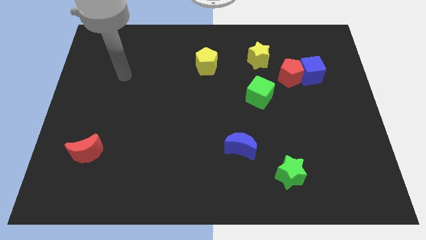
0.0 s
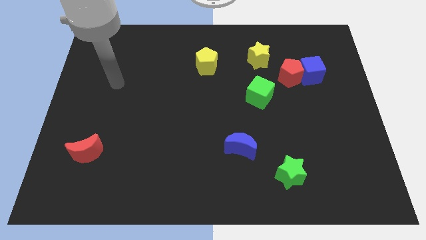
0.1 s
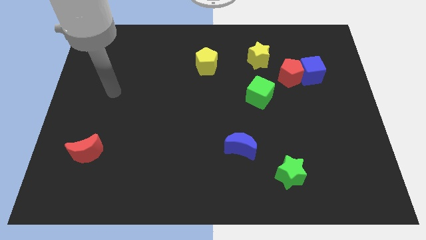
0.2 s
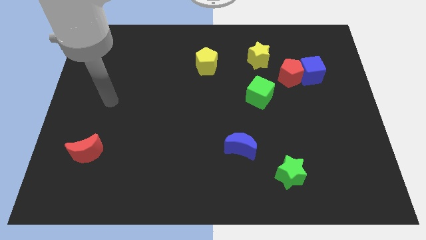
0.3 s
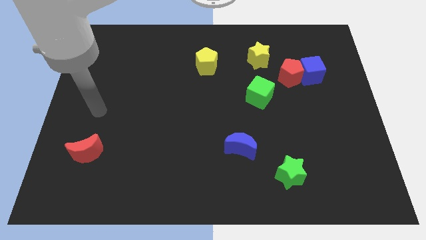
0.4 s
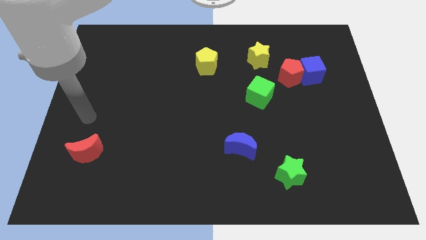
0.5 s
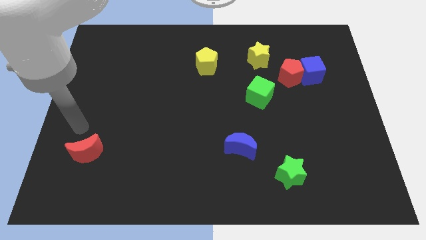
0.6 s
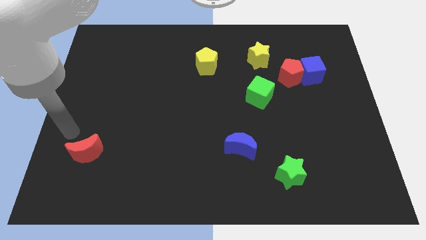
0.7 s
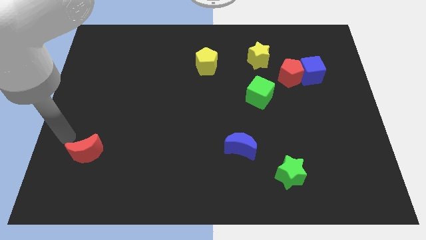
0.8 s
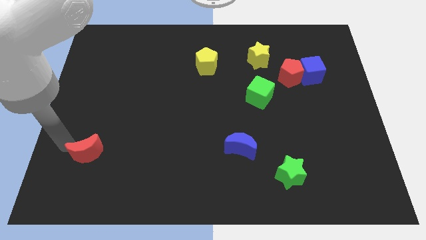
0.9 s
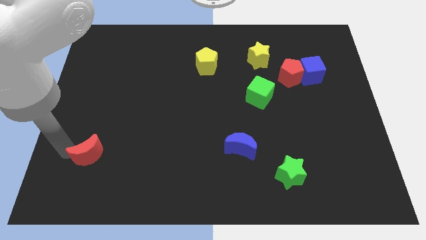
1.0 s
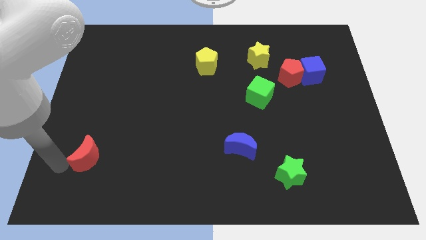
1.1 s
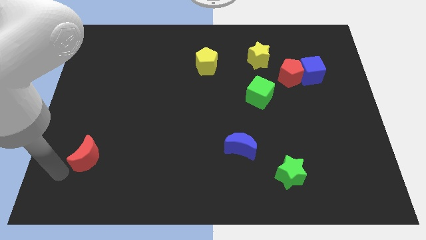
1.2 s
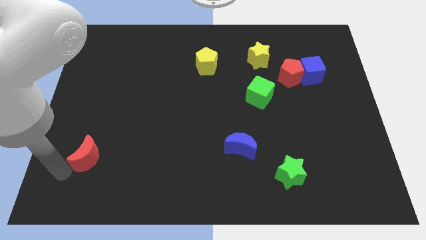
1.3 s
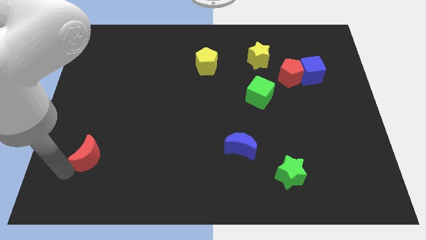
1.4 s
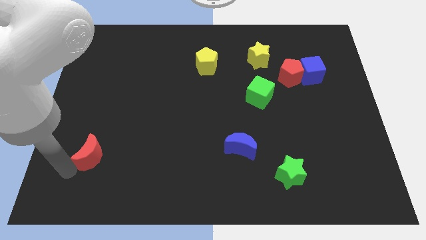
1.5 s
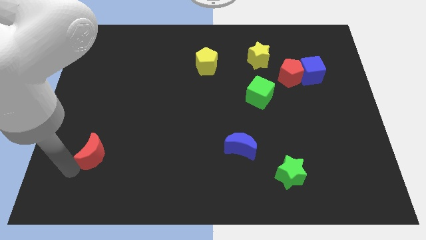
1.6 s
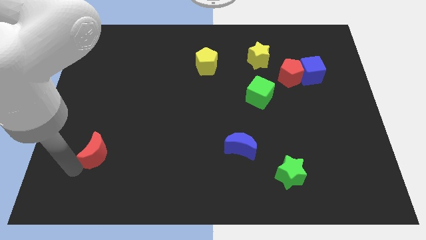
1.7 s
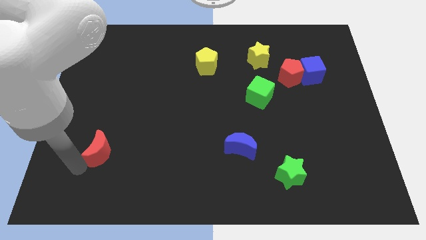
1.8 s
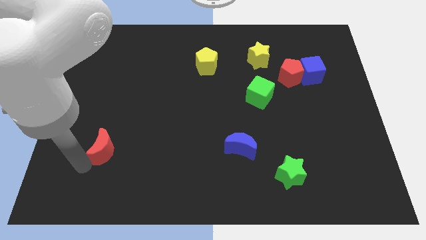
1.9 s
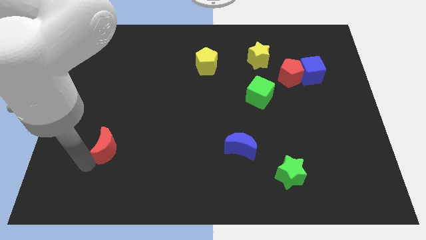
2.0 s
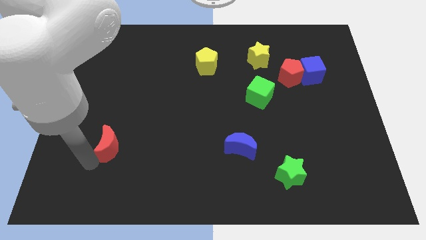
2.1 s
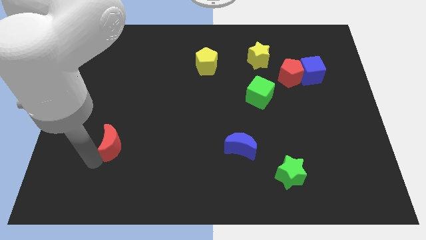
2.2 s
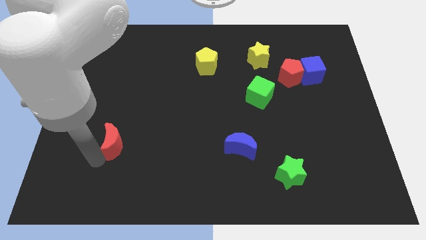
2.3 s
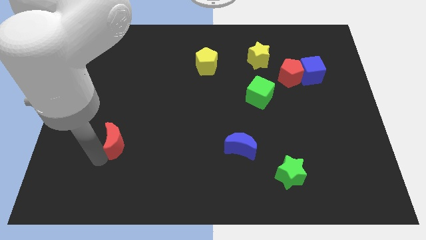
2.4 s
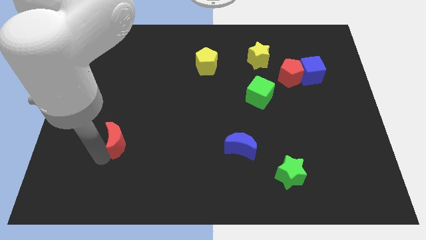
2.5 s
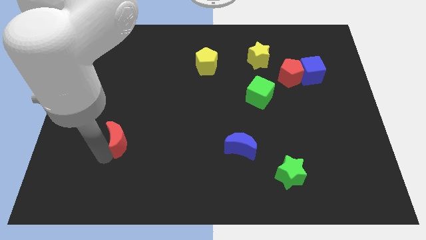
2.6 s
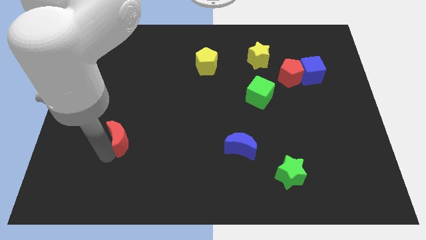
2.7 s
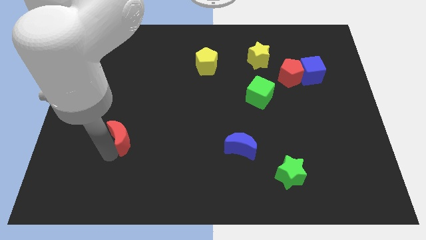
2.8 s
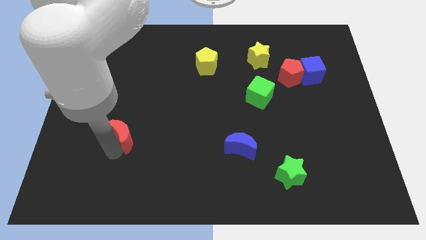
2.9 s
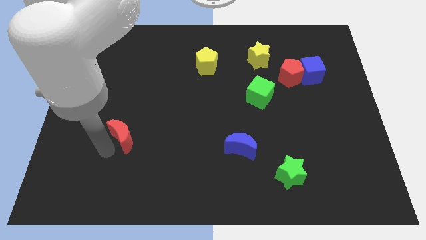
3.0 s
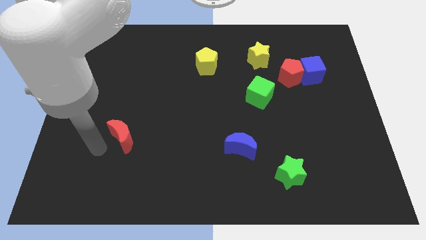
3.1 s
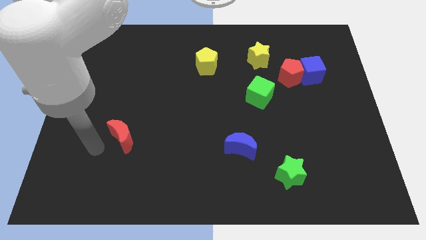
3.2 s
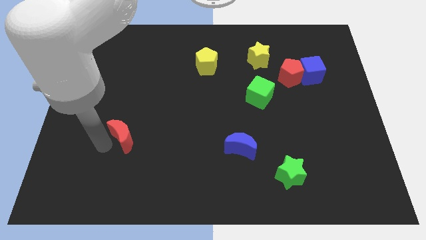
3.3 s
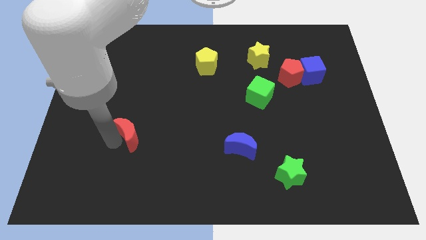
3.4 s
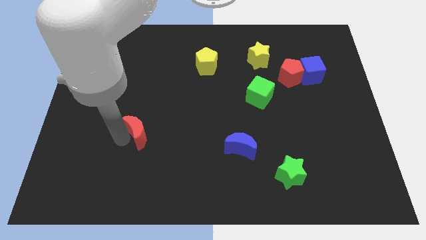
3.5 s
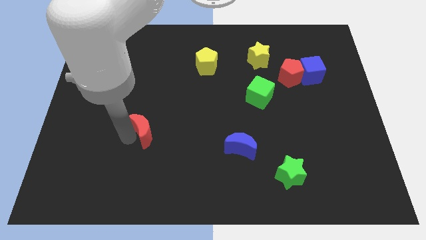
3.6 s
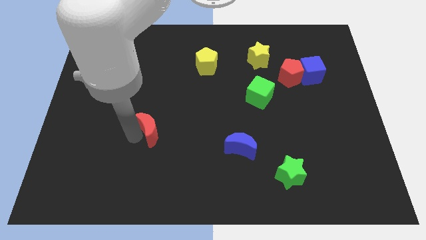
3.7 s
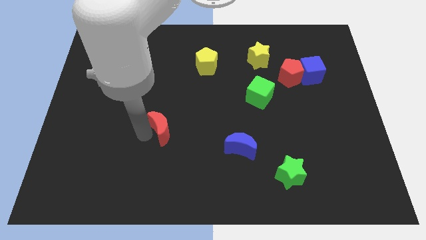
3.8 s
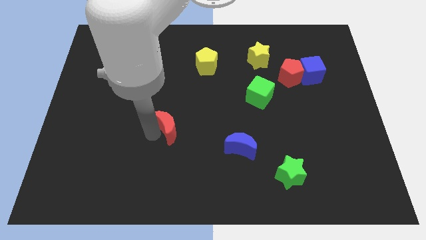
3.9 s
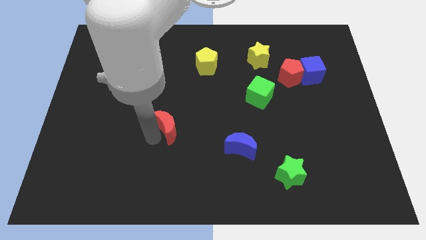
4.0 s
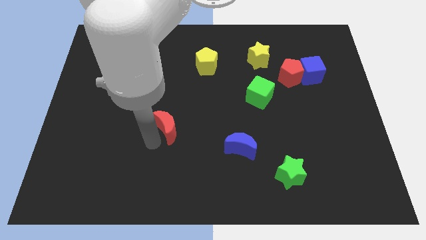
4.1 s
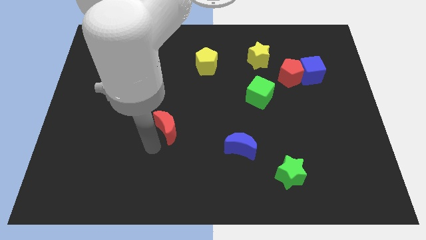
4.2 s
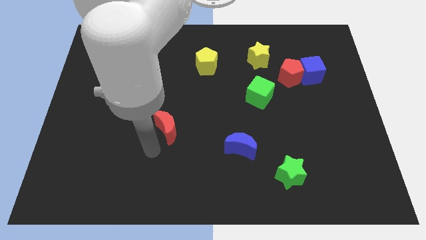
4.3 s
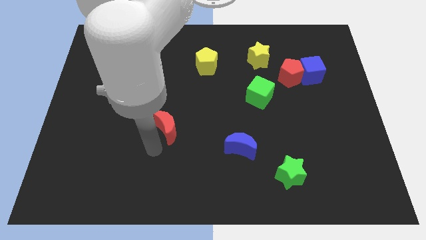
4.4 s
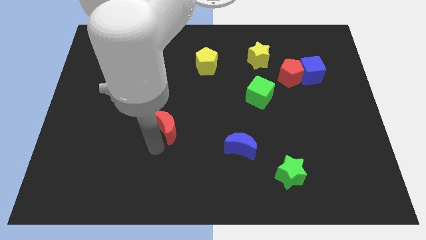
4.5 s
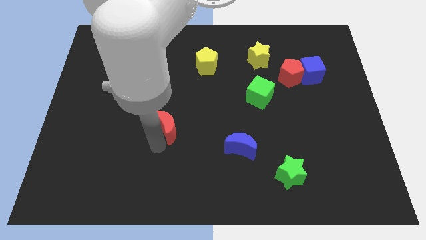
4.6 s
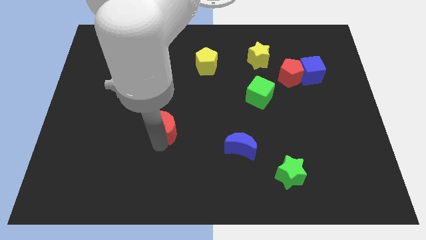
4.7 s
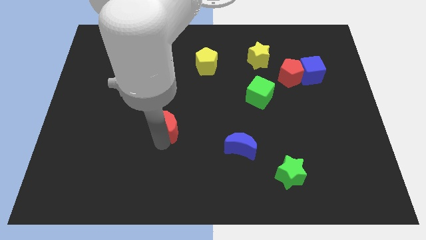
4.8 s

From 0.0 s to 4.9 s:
move the red moon to the center

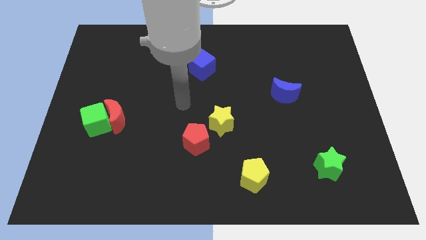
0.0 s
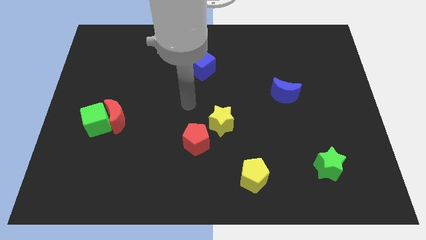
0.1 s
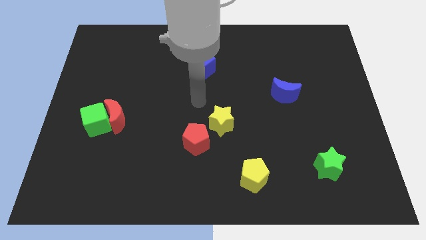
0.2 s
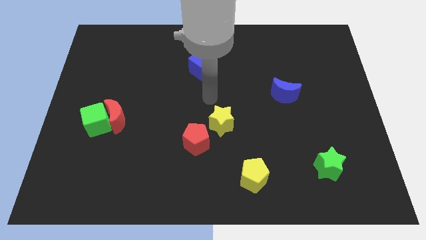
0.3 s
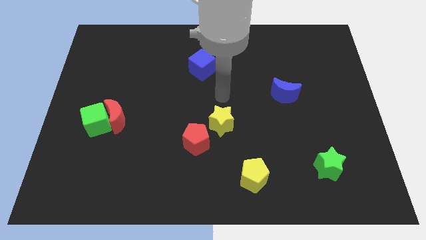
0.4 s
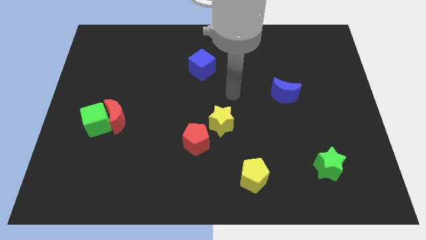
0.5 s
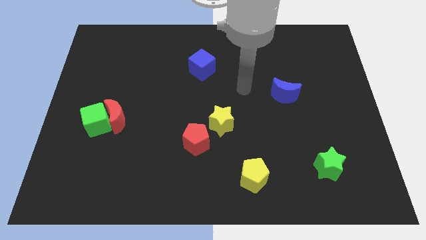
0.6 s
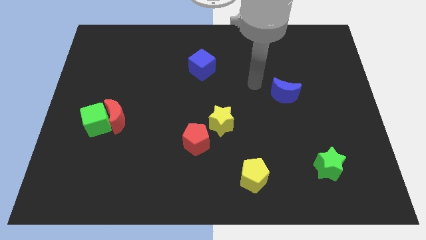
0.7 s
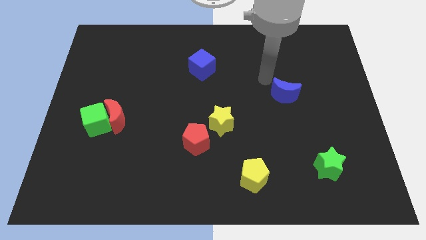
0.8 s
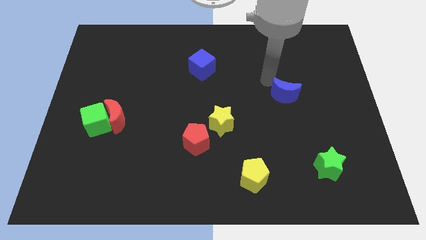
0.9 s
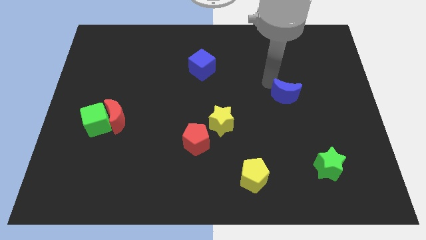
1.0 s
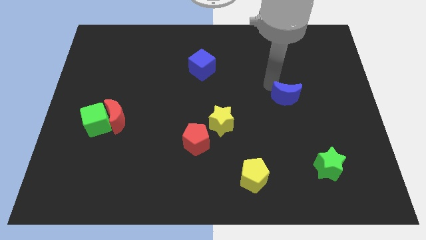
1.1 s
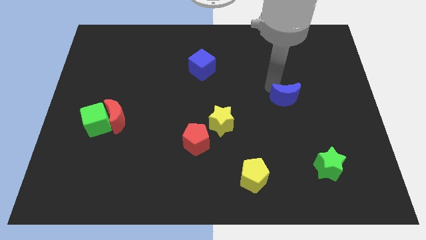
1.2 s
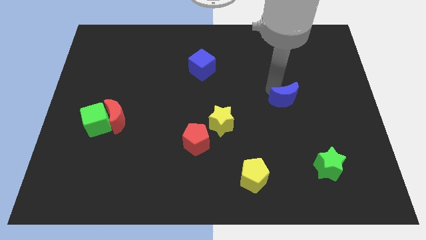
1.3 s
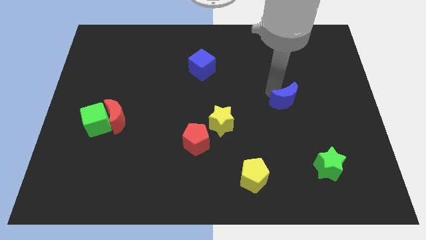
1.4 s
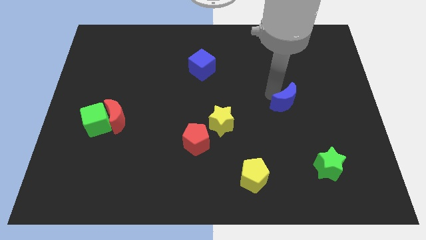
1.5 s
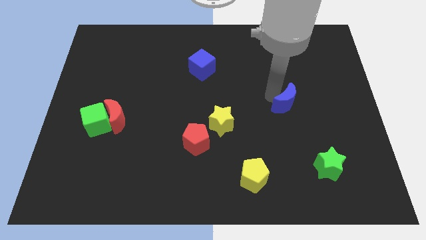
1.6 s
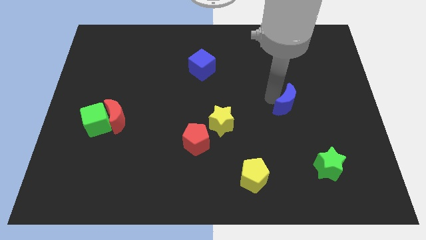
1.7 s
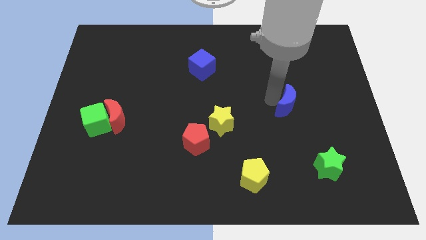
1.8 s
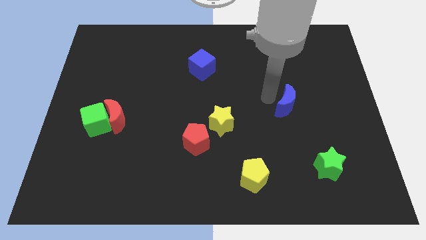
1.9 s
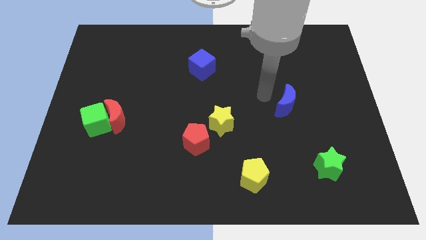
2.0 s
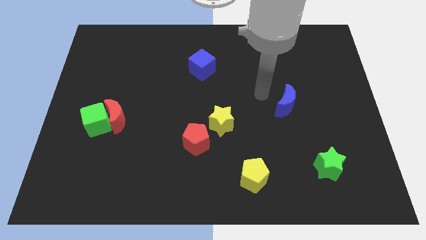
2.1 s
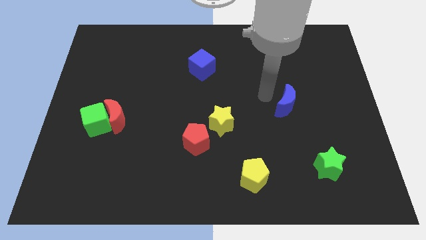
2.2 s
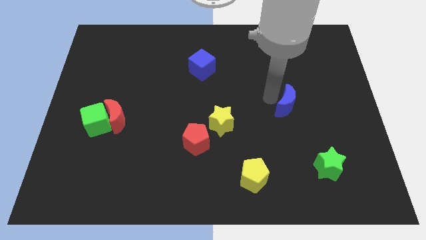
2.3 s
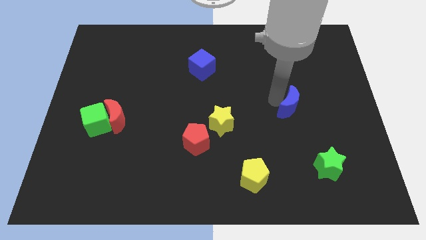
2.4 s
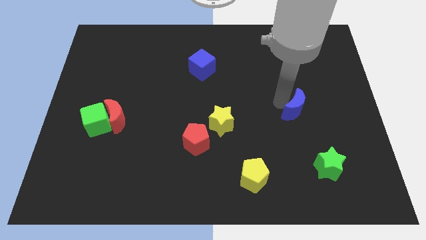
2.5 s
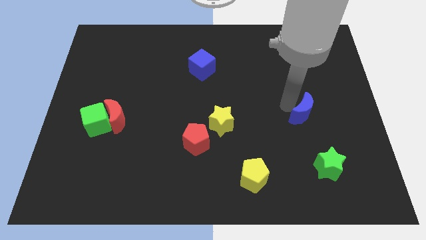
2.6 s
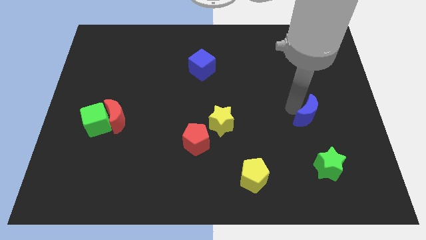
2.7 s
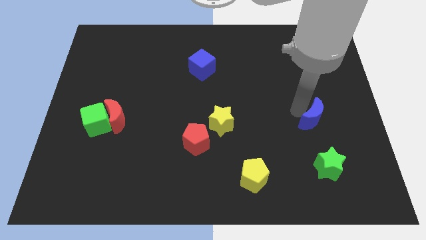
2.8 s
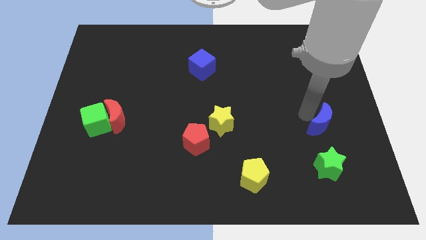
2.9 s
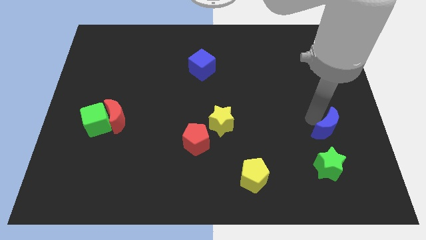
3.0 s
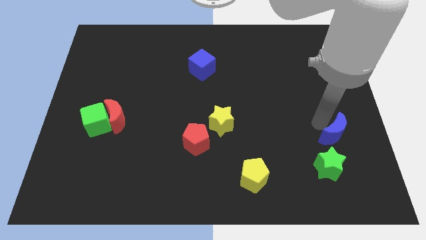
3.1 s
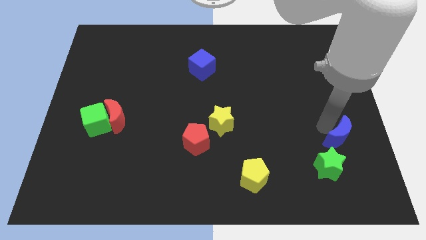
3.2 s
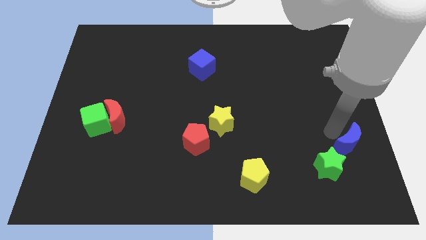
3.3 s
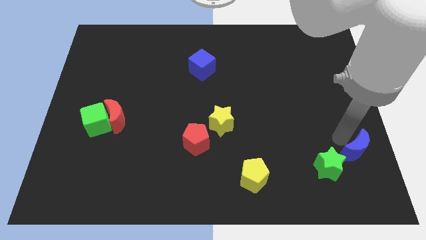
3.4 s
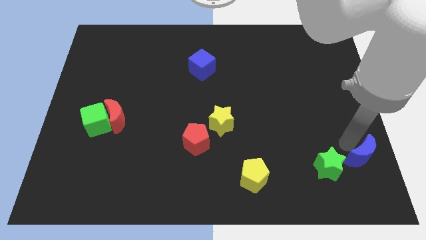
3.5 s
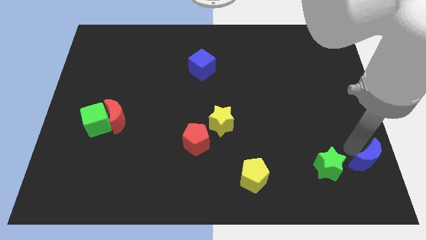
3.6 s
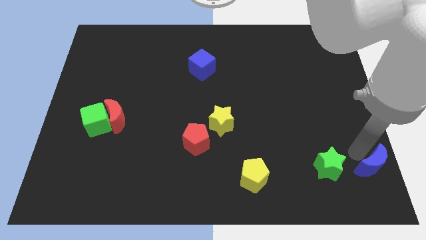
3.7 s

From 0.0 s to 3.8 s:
move the blue moon to the bottom right corner
